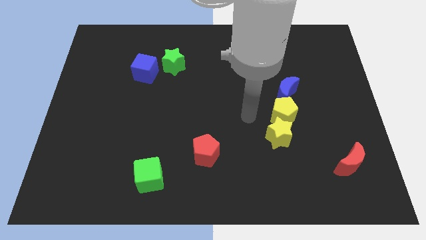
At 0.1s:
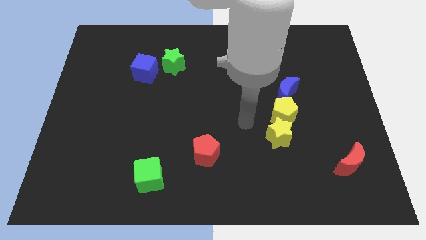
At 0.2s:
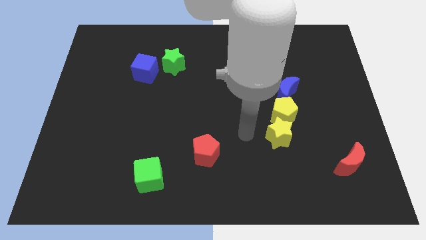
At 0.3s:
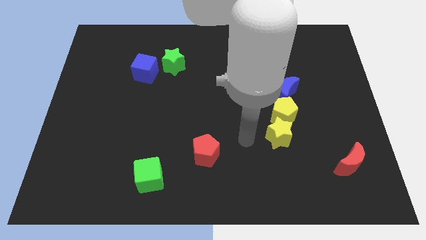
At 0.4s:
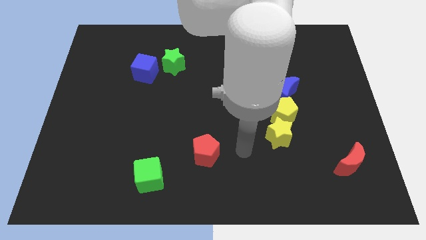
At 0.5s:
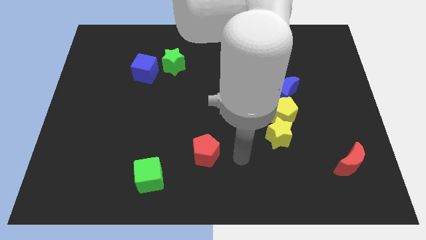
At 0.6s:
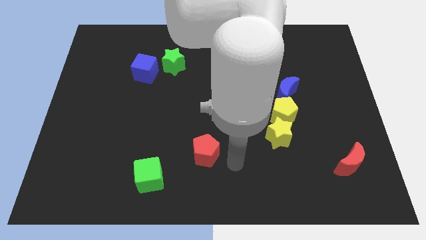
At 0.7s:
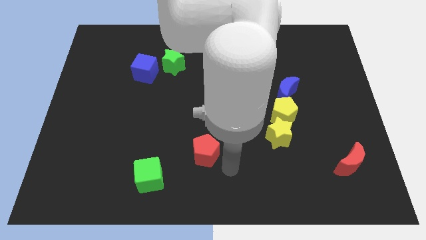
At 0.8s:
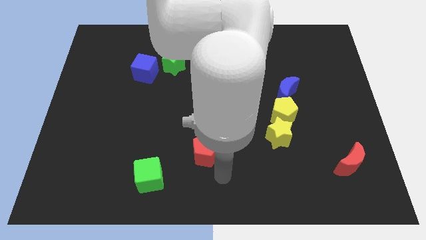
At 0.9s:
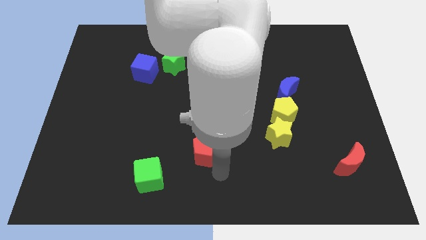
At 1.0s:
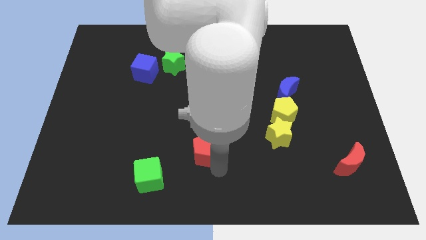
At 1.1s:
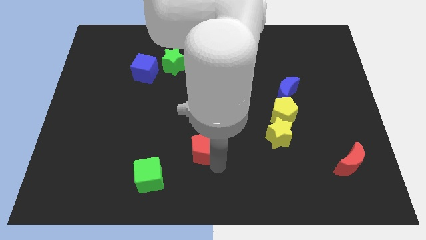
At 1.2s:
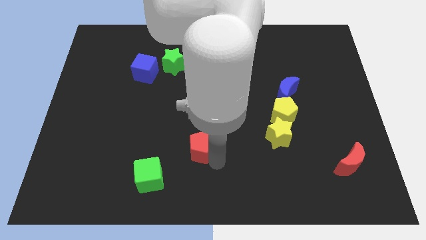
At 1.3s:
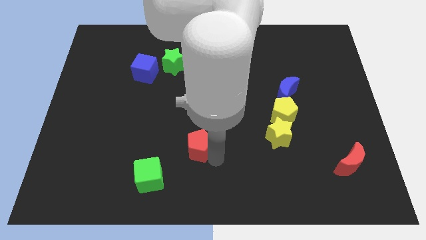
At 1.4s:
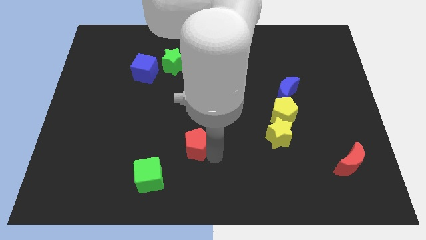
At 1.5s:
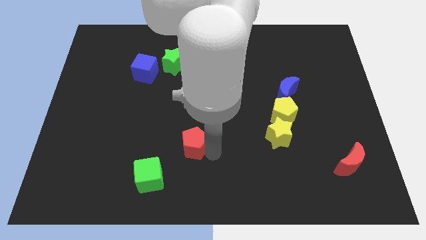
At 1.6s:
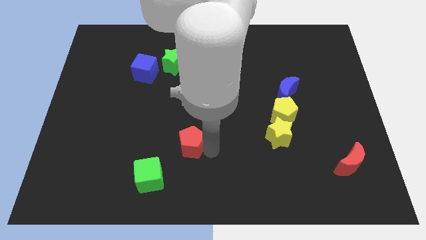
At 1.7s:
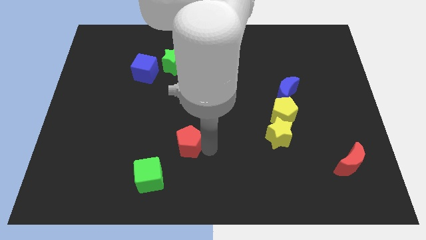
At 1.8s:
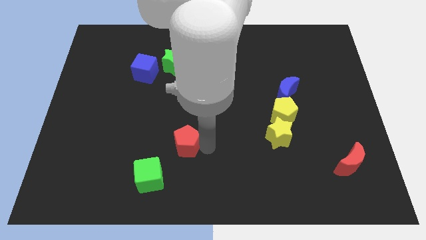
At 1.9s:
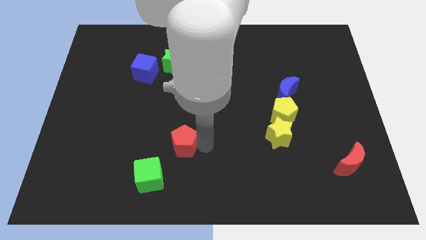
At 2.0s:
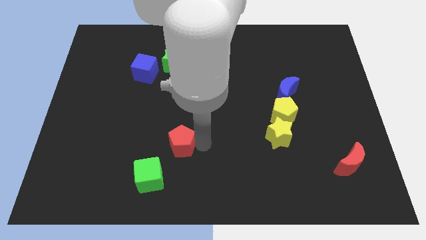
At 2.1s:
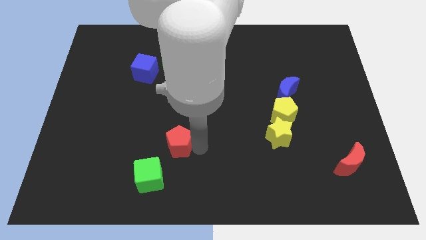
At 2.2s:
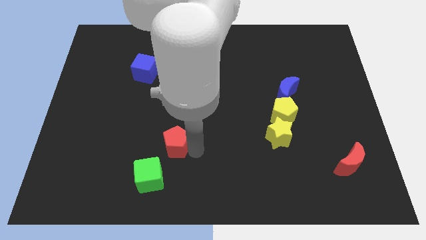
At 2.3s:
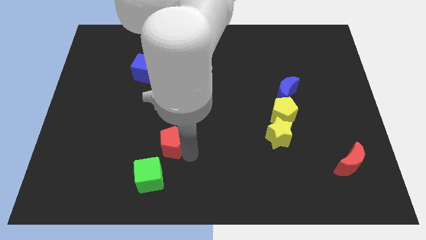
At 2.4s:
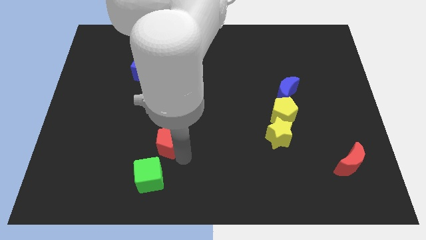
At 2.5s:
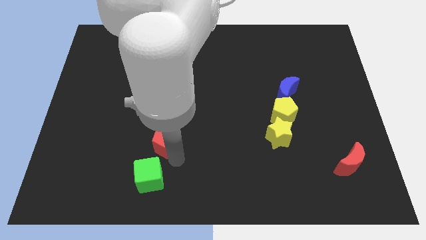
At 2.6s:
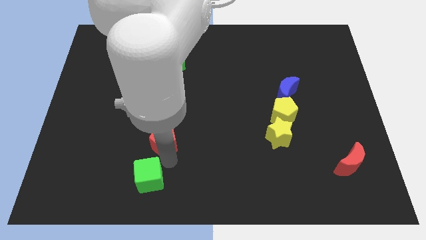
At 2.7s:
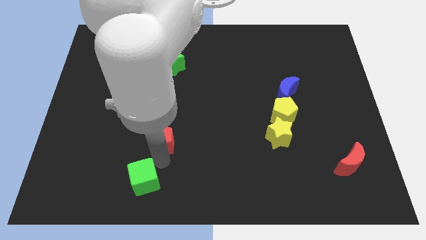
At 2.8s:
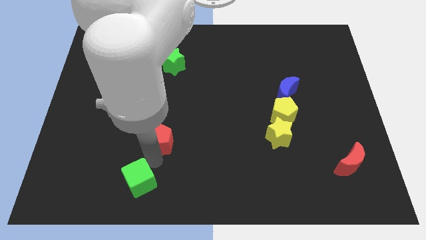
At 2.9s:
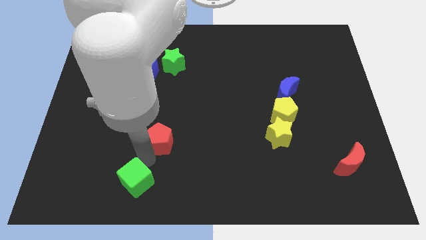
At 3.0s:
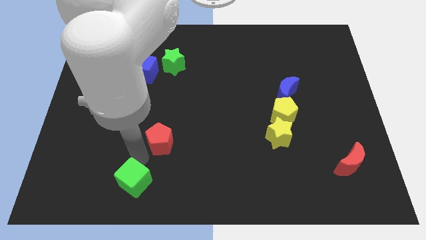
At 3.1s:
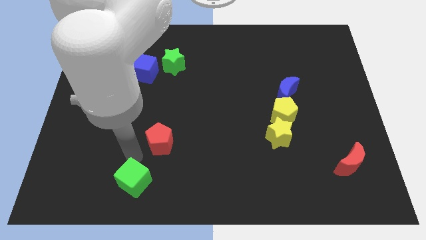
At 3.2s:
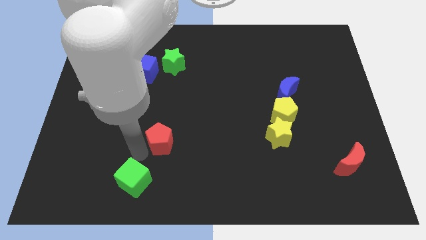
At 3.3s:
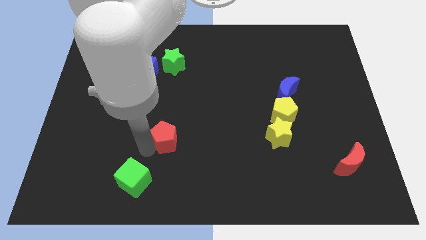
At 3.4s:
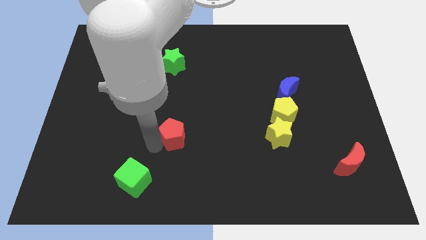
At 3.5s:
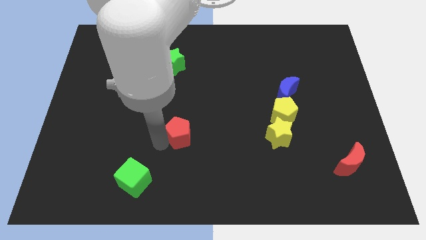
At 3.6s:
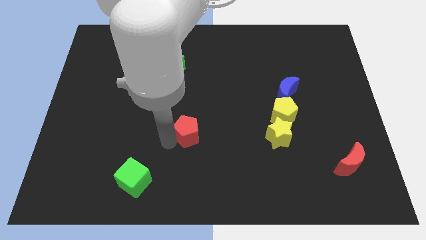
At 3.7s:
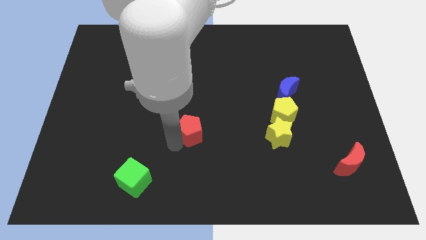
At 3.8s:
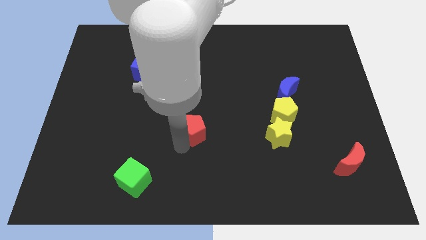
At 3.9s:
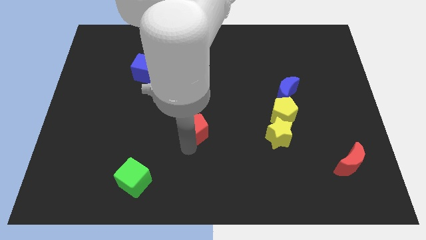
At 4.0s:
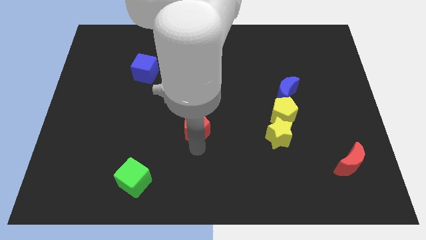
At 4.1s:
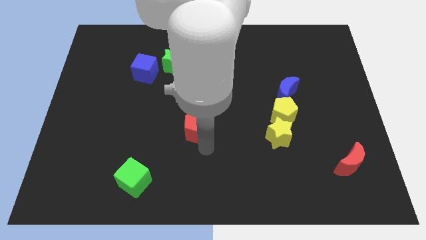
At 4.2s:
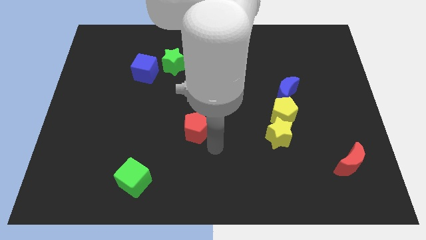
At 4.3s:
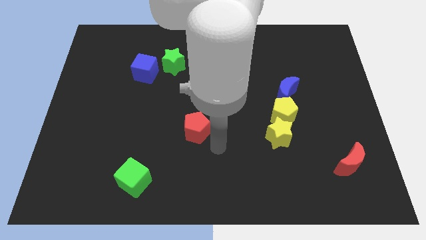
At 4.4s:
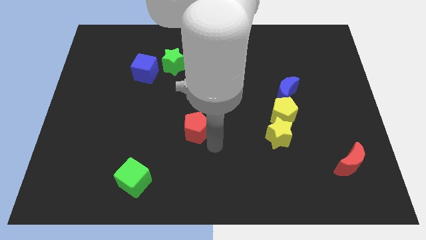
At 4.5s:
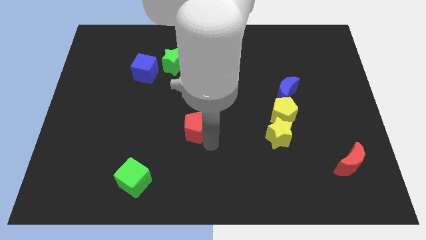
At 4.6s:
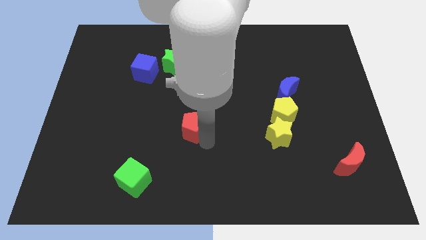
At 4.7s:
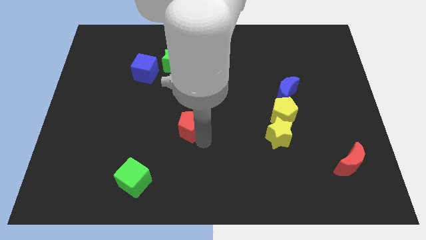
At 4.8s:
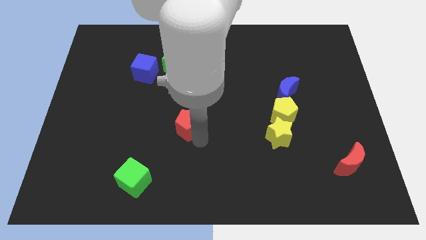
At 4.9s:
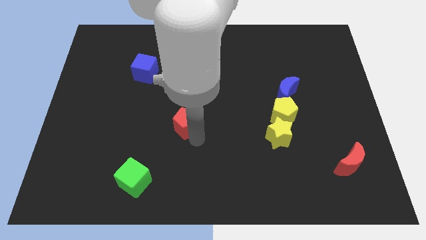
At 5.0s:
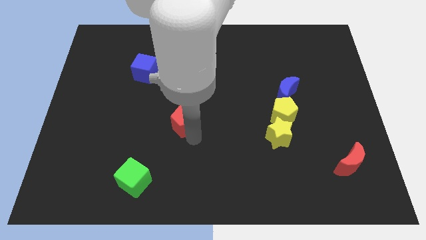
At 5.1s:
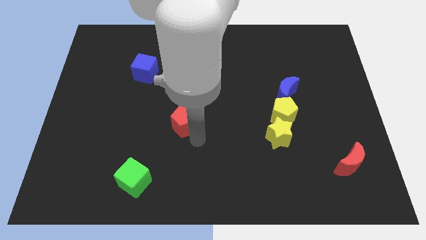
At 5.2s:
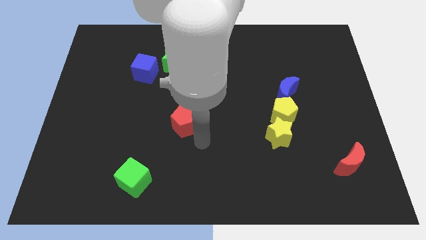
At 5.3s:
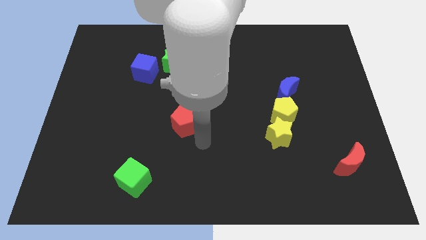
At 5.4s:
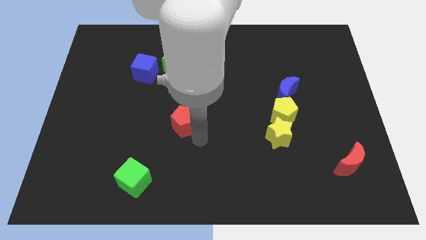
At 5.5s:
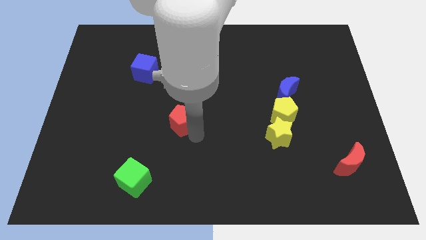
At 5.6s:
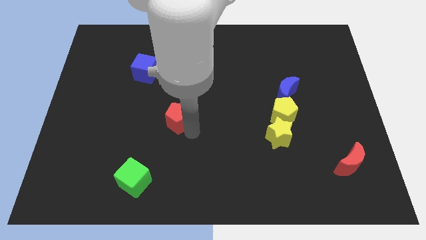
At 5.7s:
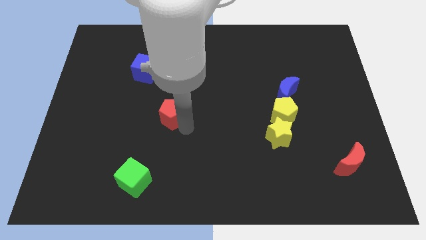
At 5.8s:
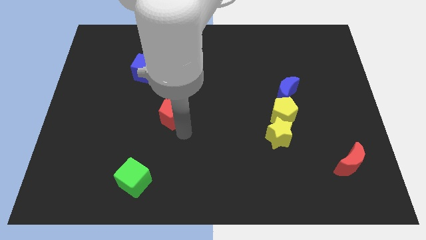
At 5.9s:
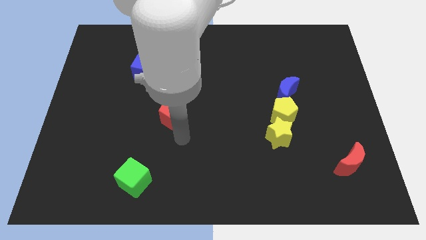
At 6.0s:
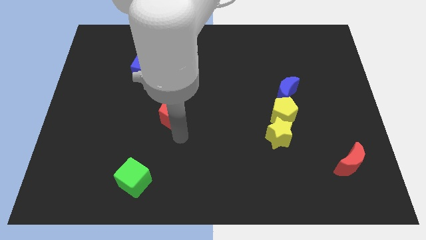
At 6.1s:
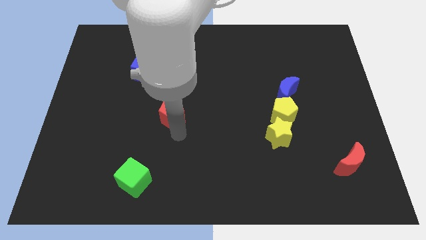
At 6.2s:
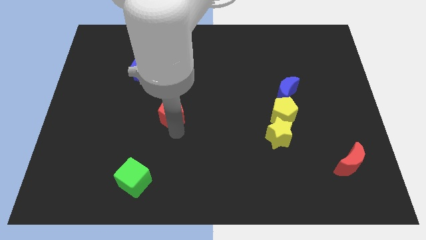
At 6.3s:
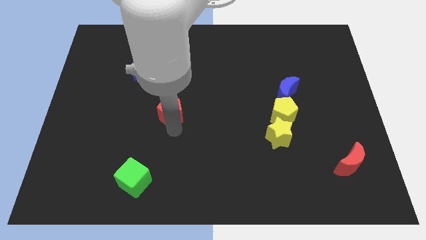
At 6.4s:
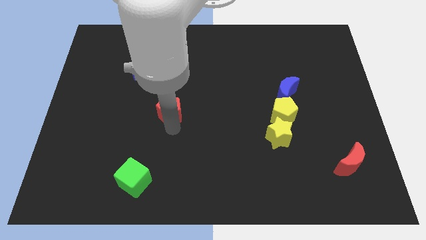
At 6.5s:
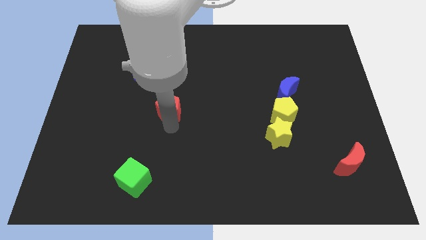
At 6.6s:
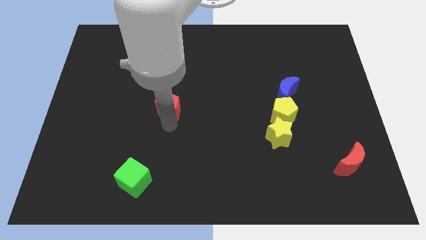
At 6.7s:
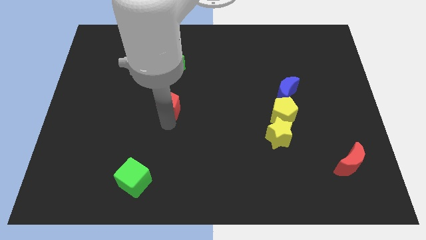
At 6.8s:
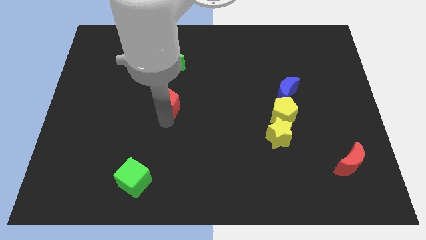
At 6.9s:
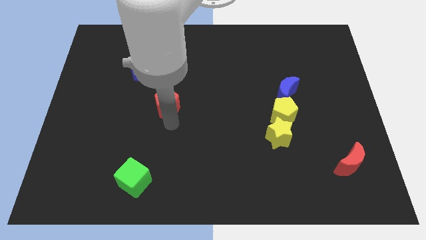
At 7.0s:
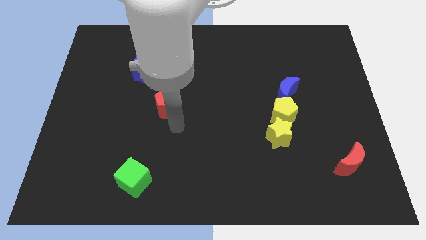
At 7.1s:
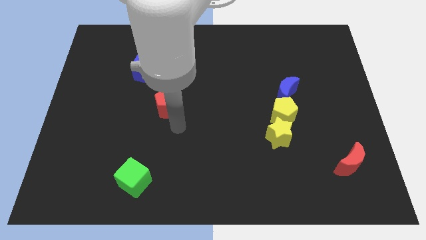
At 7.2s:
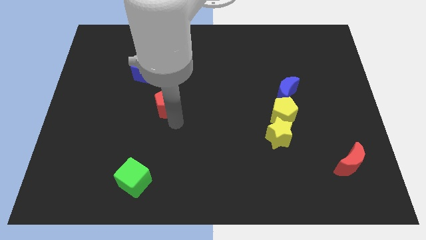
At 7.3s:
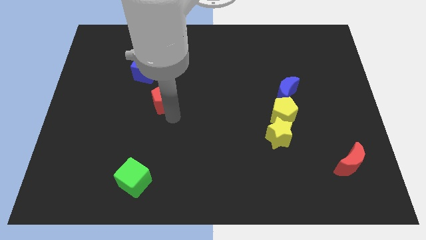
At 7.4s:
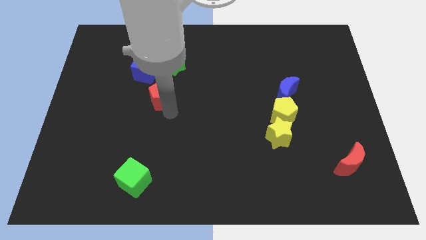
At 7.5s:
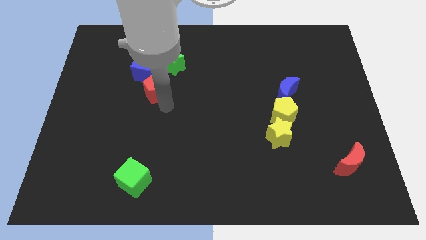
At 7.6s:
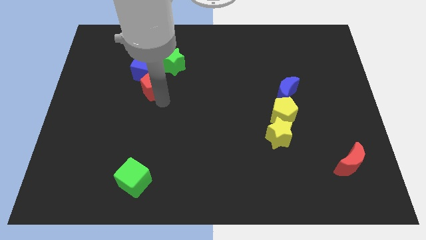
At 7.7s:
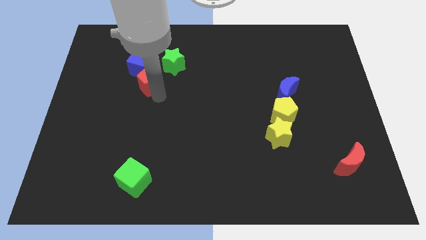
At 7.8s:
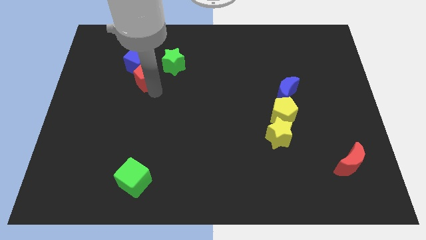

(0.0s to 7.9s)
slide the red pentagon towards the blue cube
